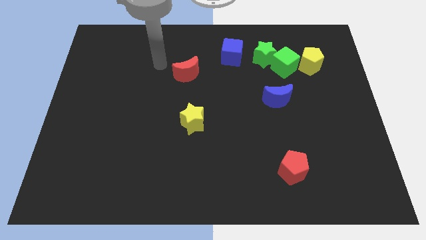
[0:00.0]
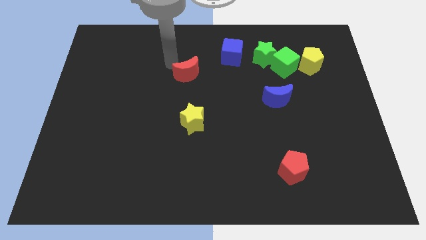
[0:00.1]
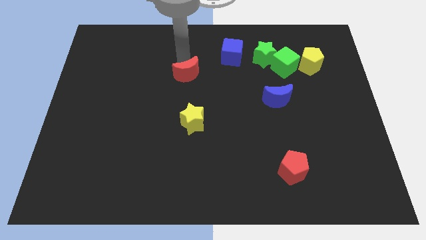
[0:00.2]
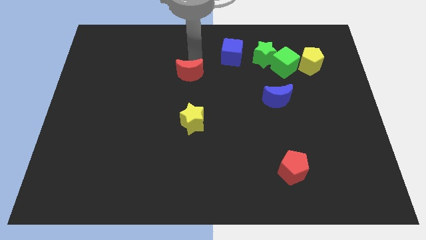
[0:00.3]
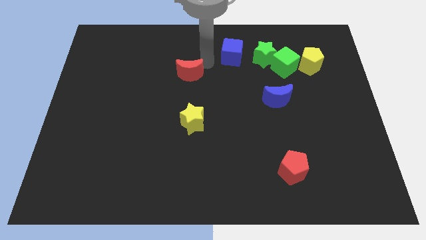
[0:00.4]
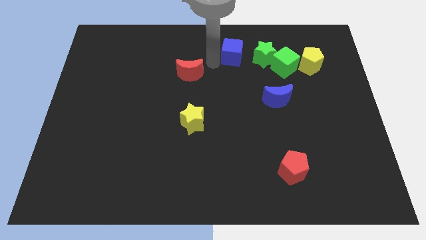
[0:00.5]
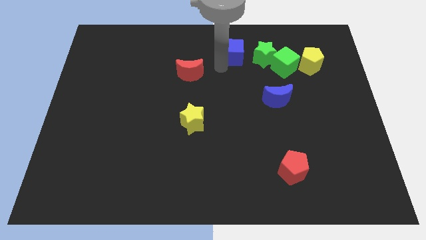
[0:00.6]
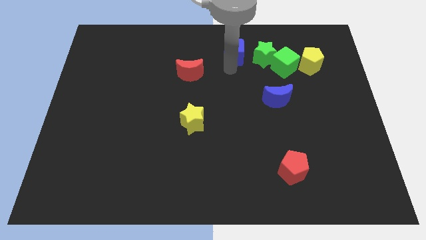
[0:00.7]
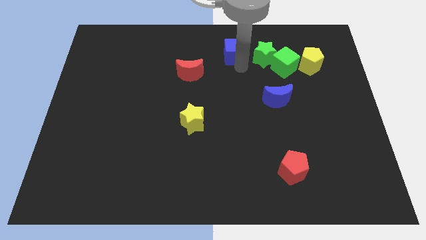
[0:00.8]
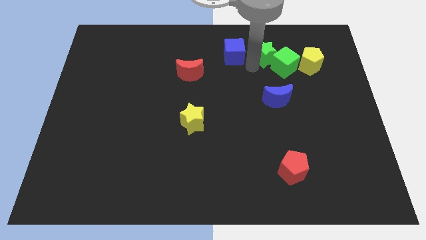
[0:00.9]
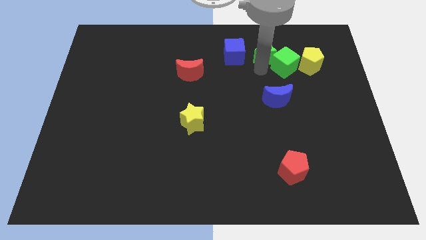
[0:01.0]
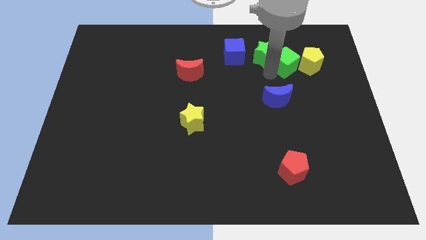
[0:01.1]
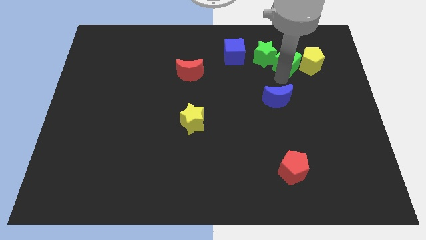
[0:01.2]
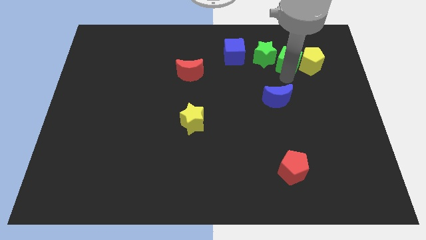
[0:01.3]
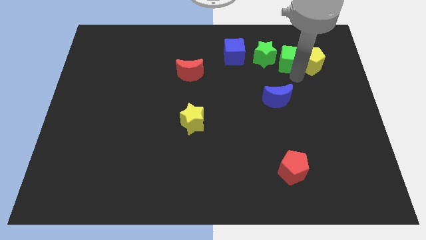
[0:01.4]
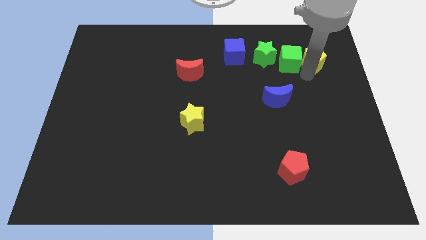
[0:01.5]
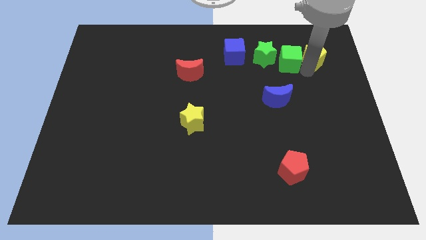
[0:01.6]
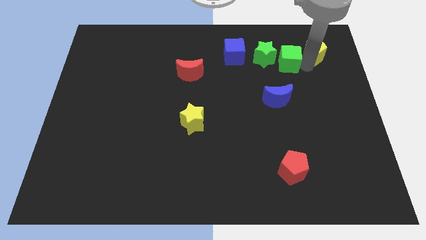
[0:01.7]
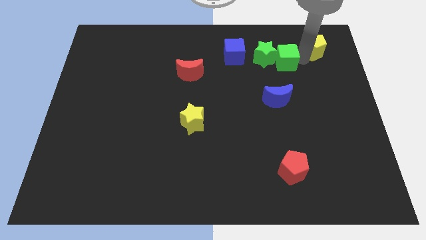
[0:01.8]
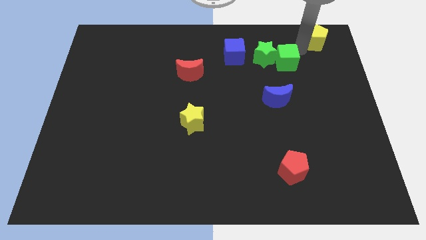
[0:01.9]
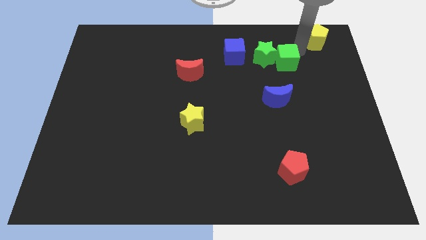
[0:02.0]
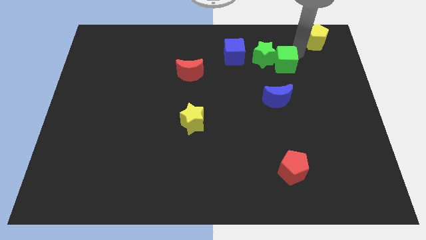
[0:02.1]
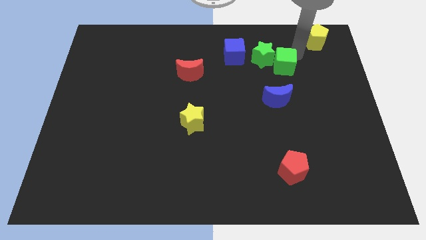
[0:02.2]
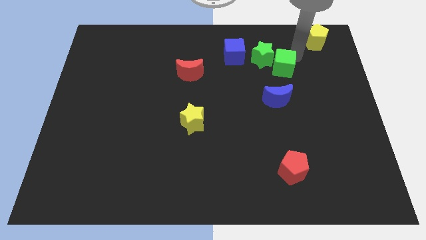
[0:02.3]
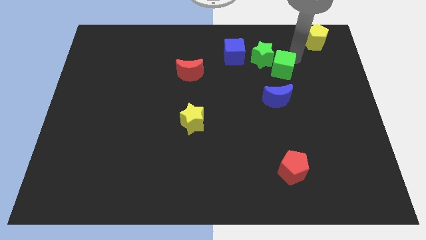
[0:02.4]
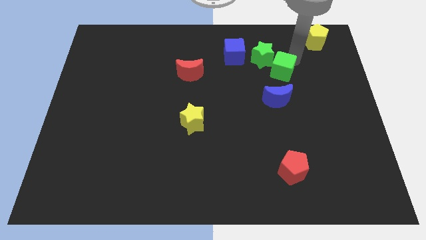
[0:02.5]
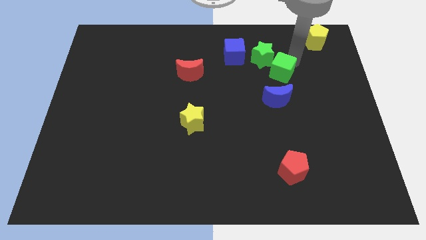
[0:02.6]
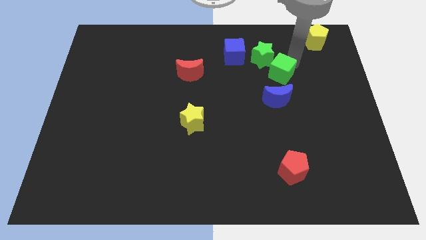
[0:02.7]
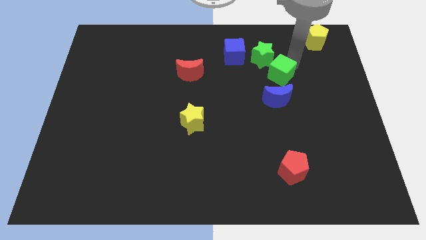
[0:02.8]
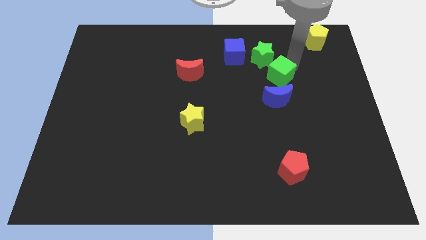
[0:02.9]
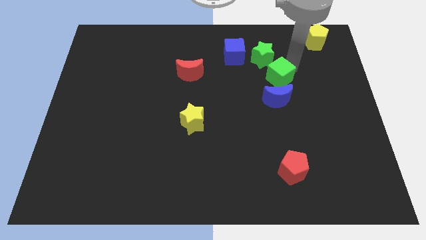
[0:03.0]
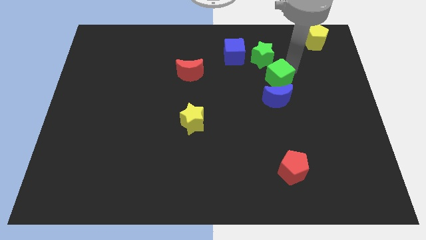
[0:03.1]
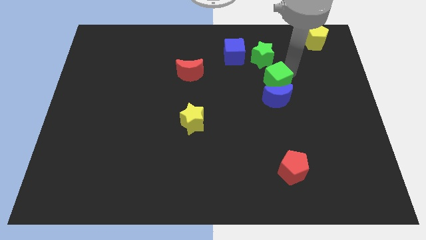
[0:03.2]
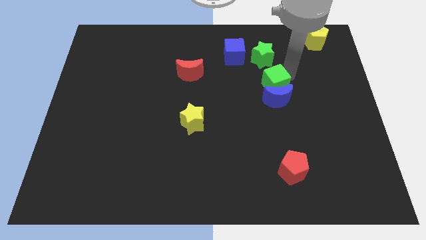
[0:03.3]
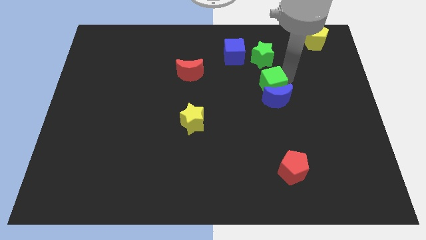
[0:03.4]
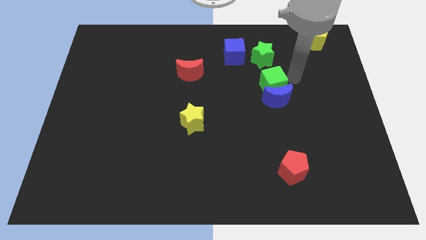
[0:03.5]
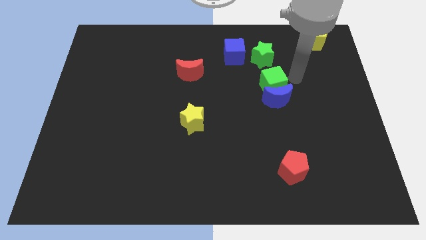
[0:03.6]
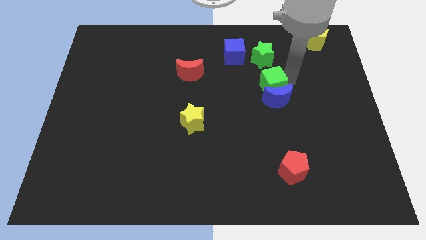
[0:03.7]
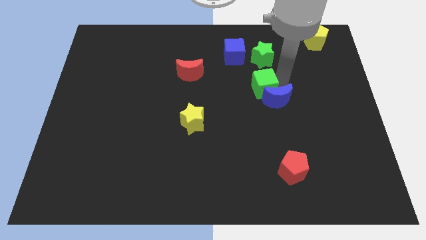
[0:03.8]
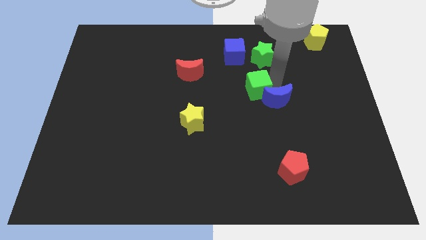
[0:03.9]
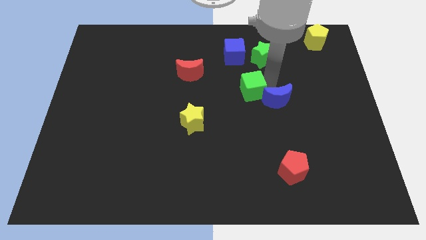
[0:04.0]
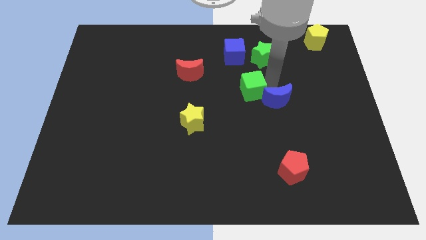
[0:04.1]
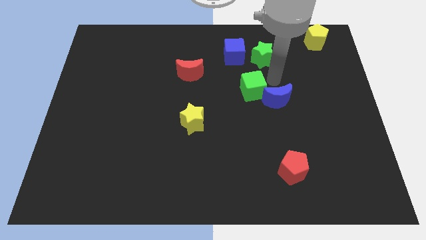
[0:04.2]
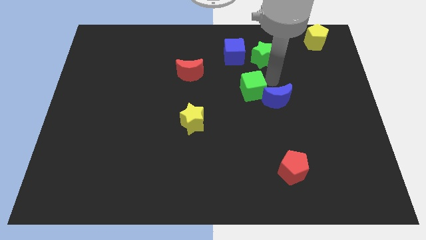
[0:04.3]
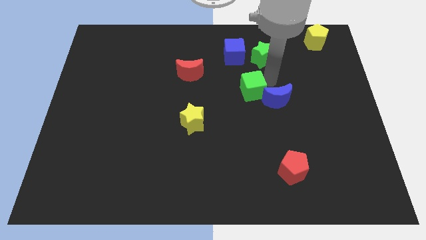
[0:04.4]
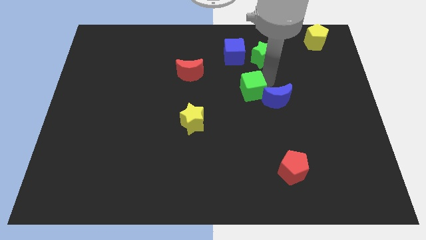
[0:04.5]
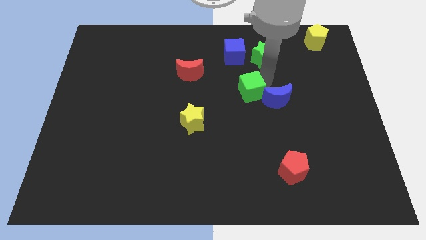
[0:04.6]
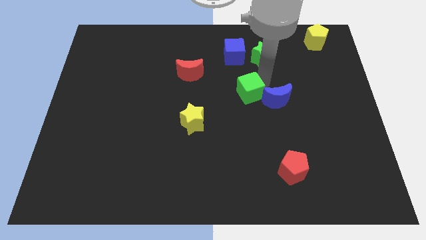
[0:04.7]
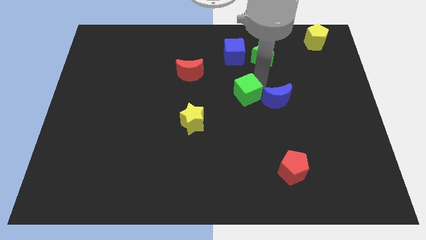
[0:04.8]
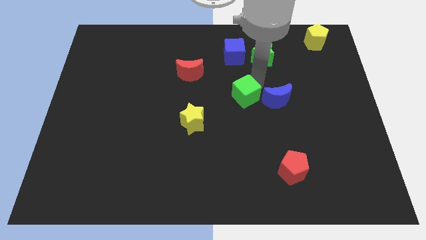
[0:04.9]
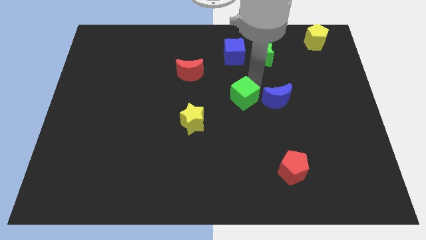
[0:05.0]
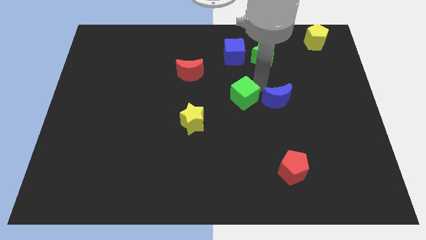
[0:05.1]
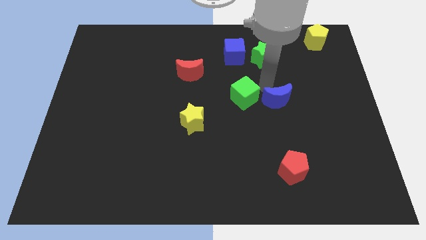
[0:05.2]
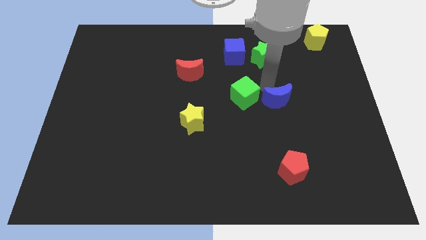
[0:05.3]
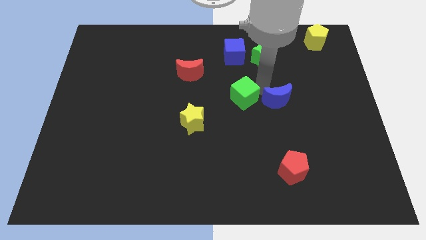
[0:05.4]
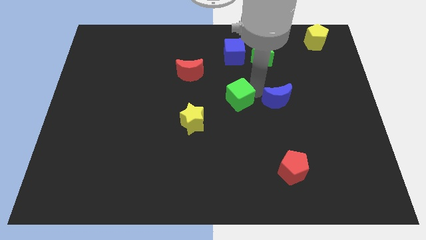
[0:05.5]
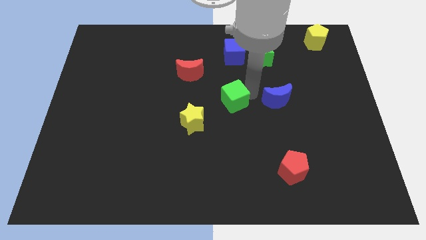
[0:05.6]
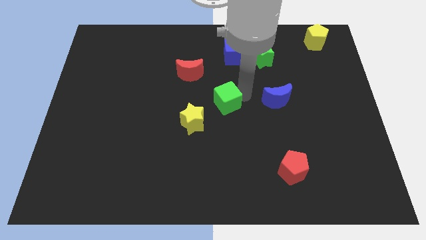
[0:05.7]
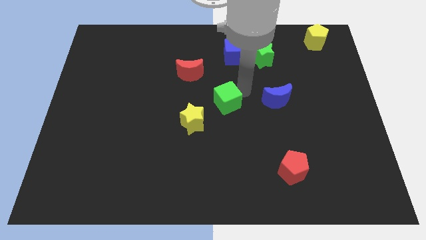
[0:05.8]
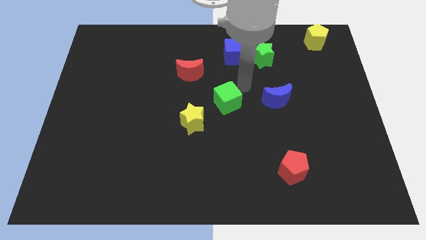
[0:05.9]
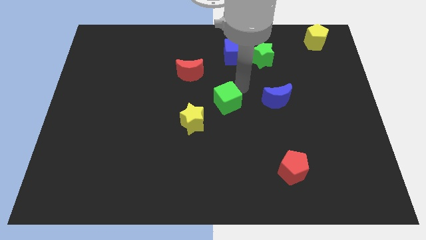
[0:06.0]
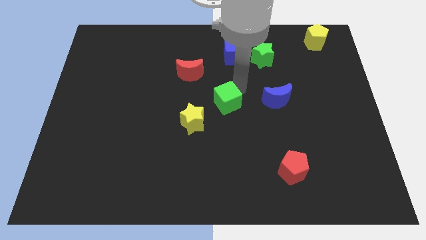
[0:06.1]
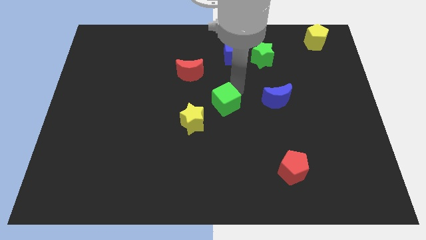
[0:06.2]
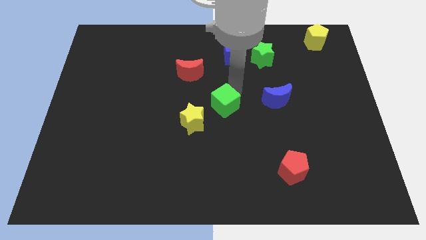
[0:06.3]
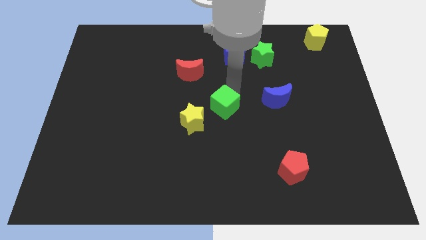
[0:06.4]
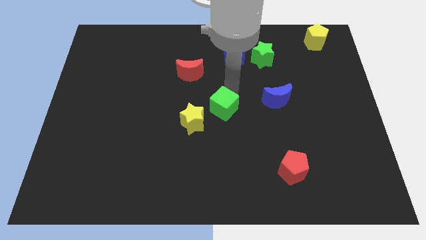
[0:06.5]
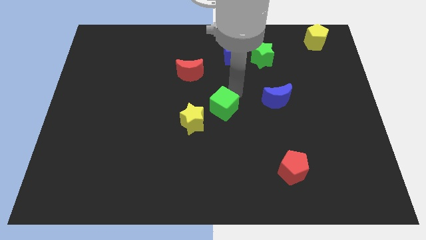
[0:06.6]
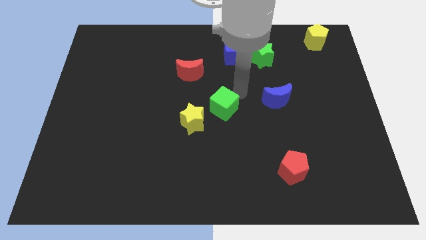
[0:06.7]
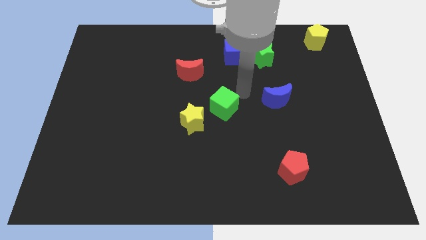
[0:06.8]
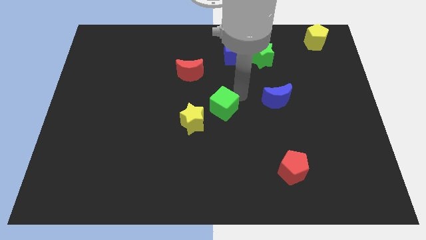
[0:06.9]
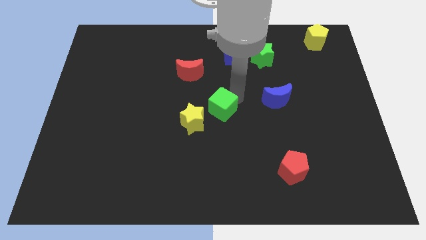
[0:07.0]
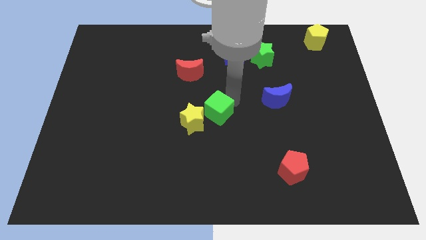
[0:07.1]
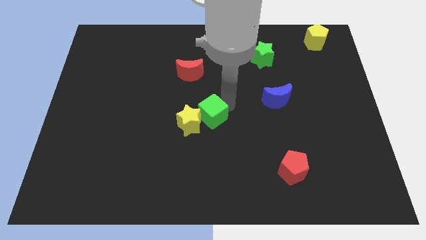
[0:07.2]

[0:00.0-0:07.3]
put the green cube close to the yellow star
